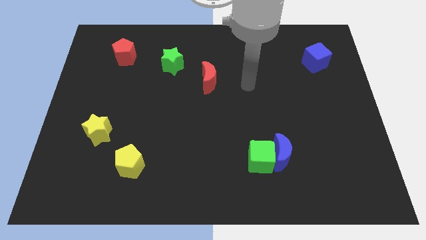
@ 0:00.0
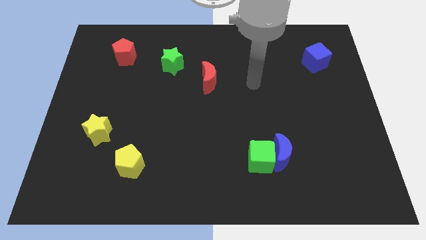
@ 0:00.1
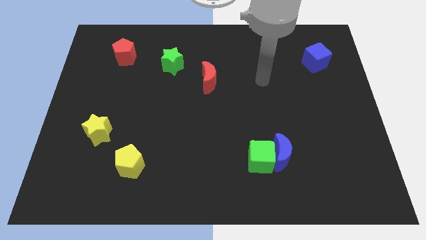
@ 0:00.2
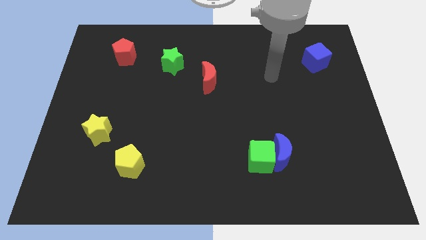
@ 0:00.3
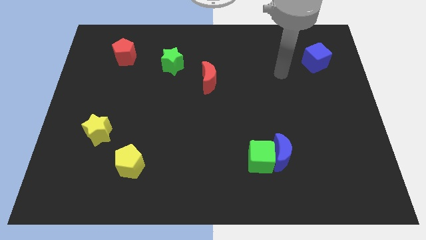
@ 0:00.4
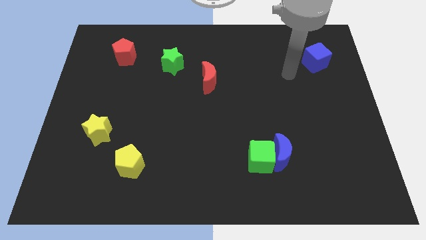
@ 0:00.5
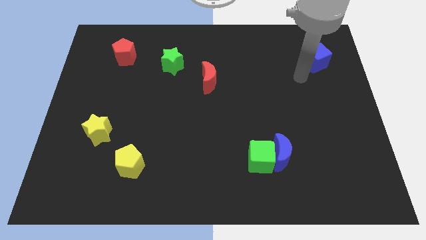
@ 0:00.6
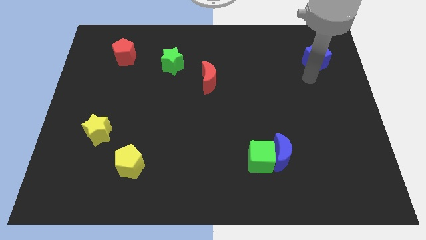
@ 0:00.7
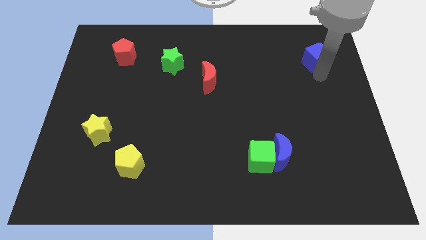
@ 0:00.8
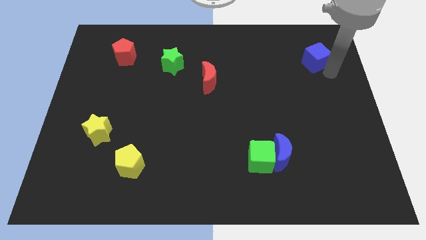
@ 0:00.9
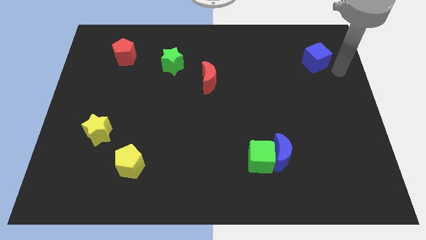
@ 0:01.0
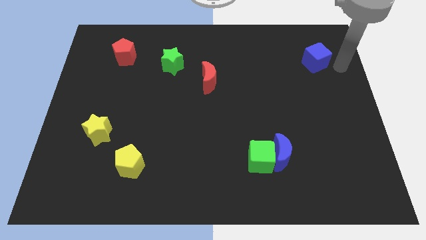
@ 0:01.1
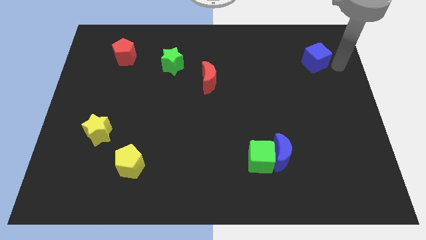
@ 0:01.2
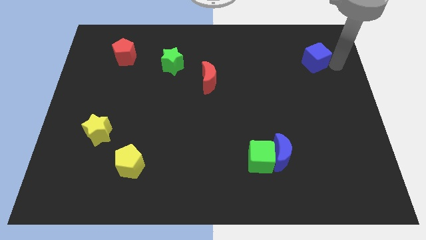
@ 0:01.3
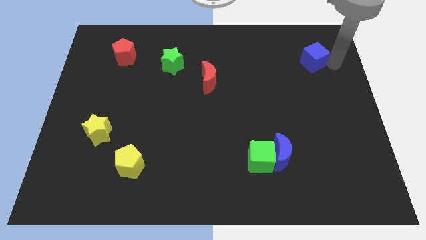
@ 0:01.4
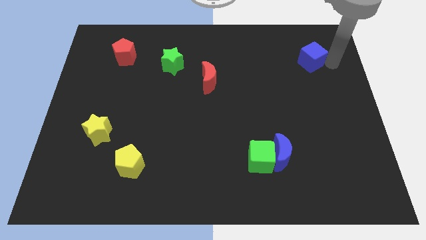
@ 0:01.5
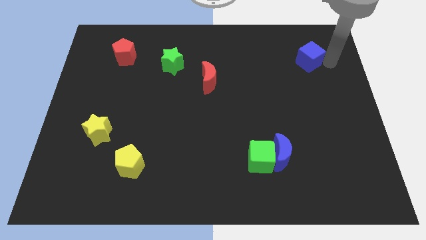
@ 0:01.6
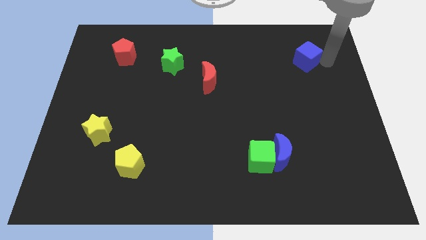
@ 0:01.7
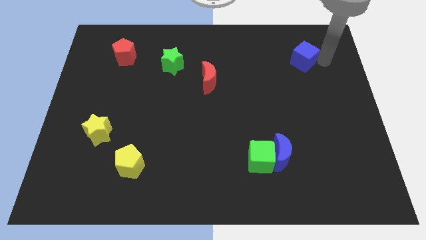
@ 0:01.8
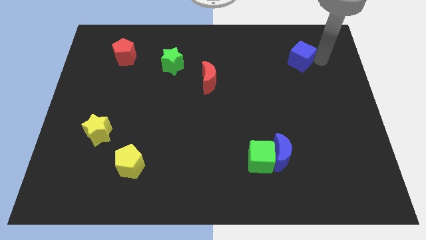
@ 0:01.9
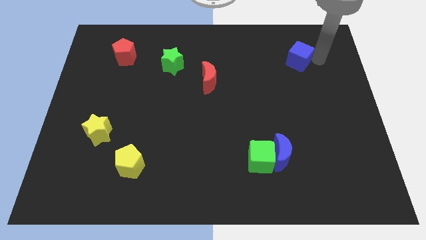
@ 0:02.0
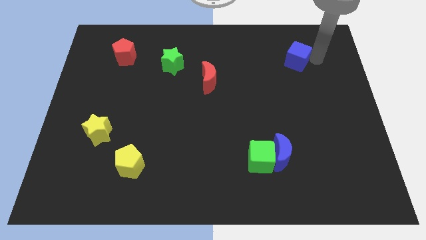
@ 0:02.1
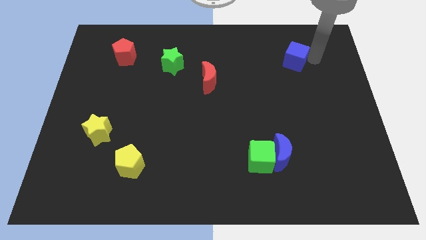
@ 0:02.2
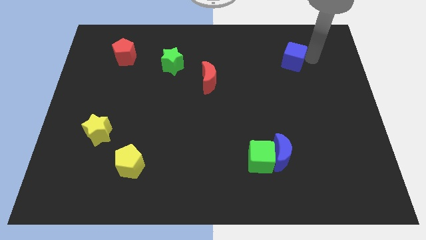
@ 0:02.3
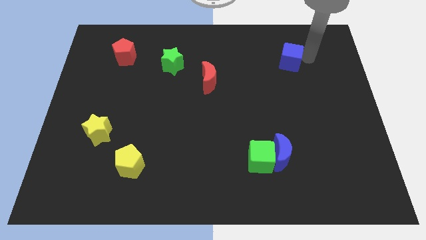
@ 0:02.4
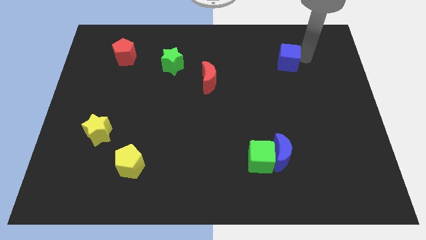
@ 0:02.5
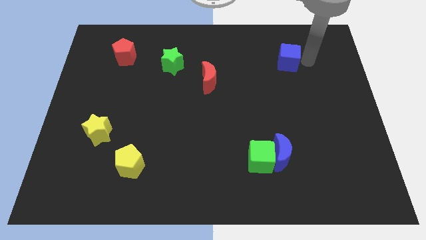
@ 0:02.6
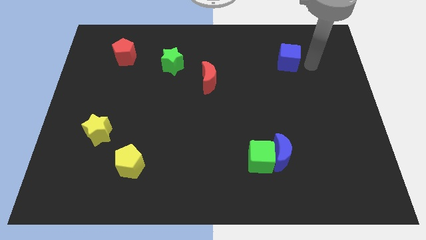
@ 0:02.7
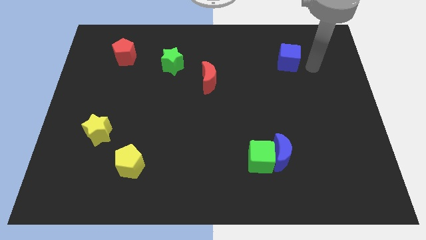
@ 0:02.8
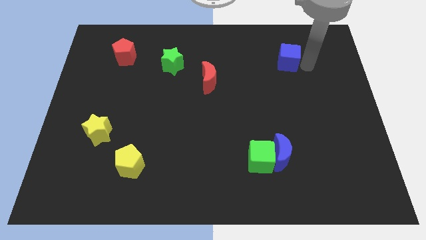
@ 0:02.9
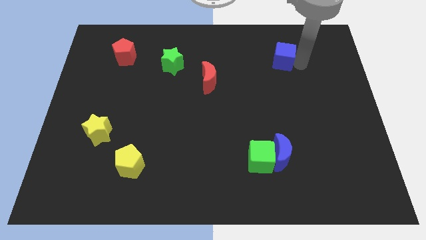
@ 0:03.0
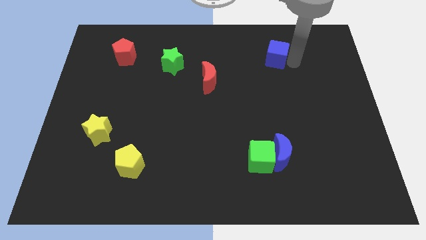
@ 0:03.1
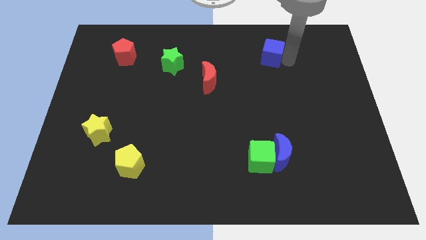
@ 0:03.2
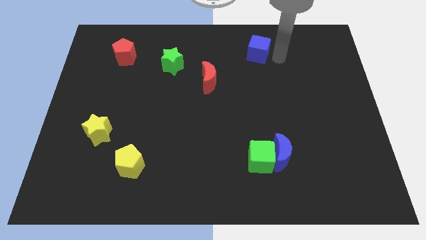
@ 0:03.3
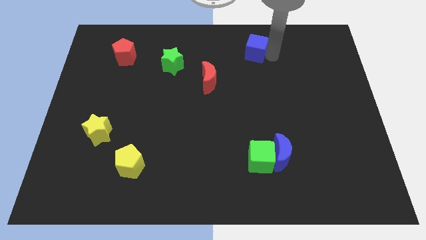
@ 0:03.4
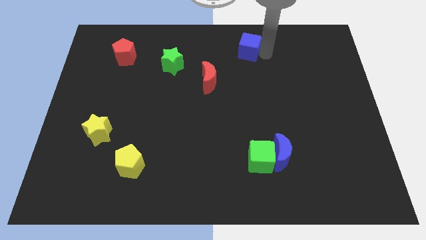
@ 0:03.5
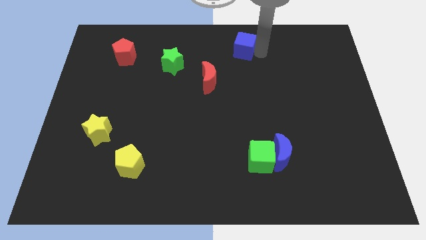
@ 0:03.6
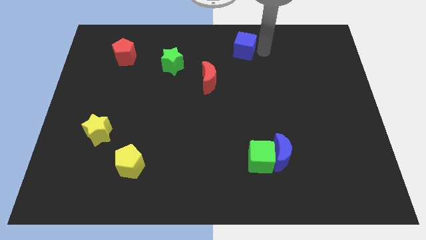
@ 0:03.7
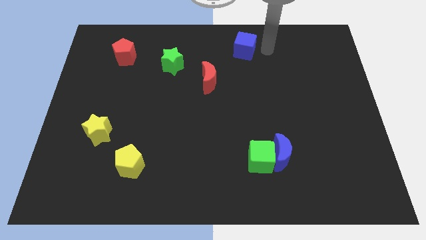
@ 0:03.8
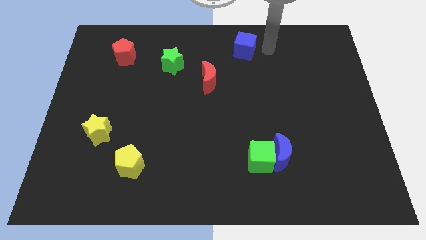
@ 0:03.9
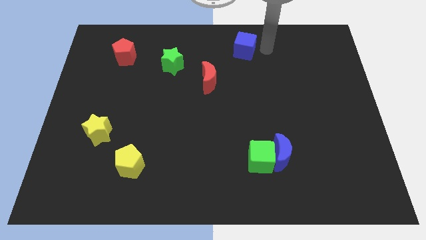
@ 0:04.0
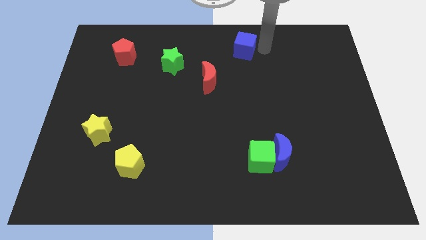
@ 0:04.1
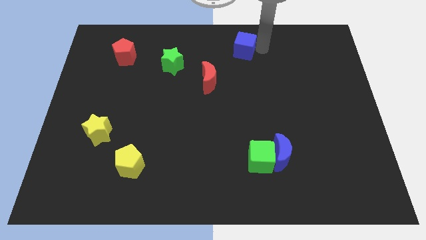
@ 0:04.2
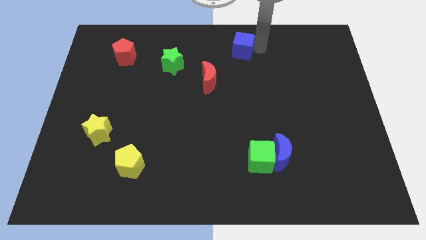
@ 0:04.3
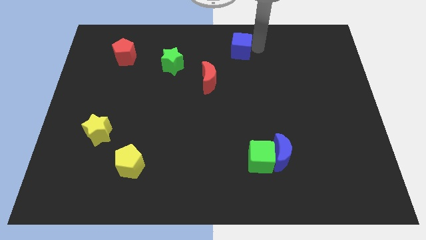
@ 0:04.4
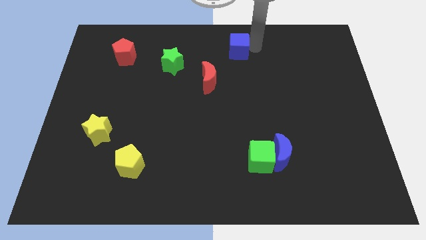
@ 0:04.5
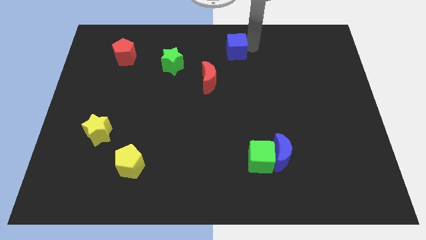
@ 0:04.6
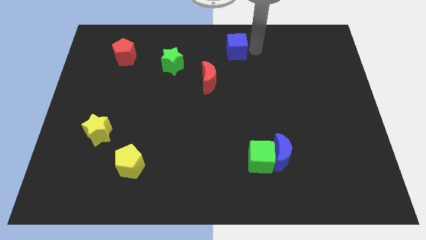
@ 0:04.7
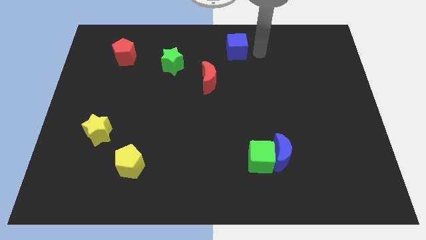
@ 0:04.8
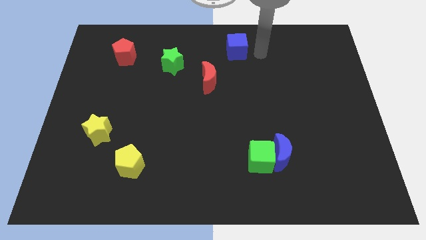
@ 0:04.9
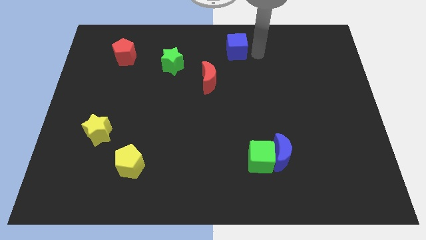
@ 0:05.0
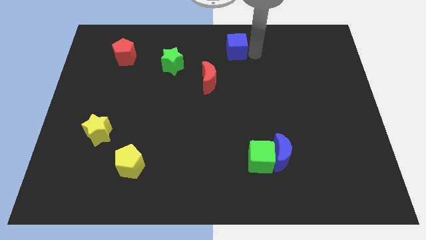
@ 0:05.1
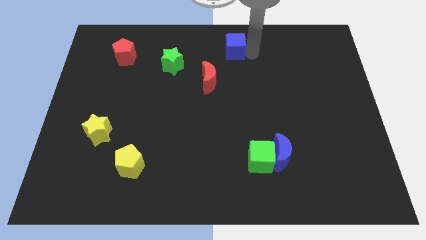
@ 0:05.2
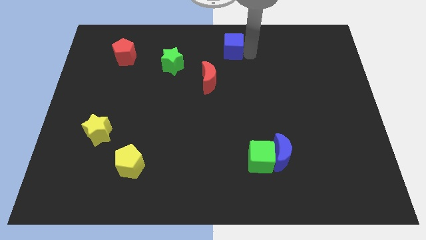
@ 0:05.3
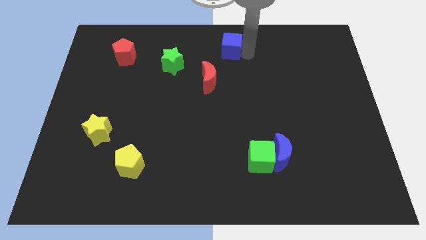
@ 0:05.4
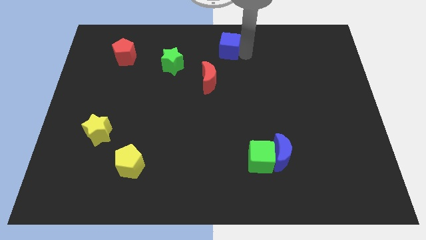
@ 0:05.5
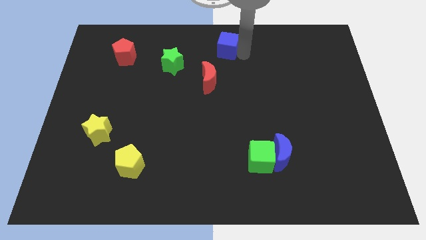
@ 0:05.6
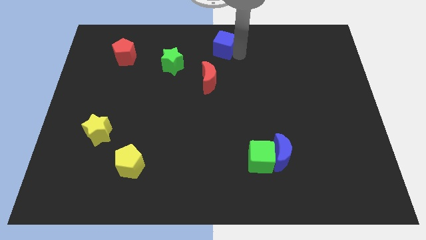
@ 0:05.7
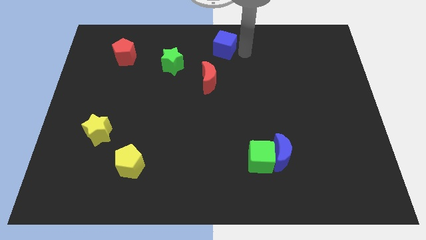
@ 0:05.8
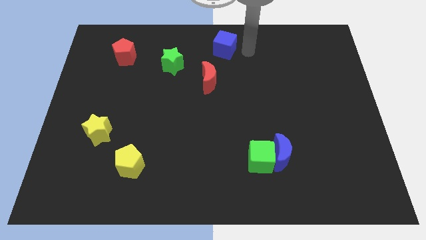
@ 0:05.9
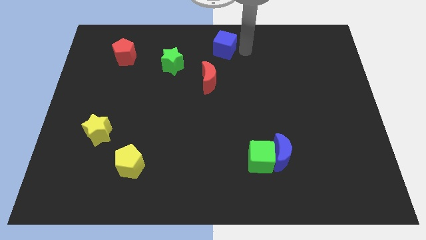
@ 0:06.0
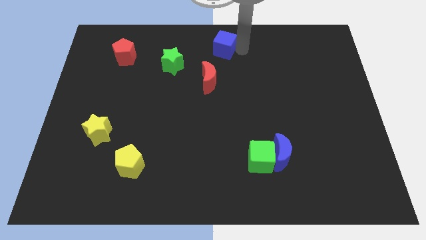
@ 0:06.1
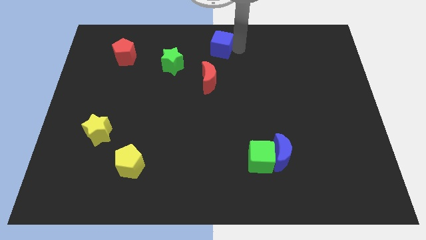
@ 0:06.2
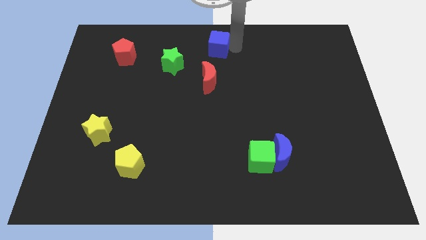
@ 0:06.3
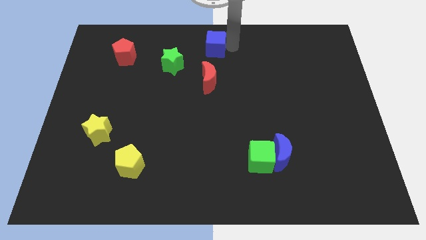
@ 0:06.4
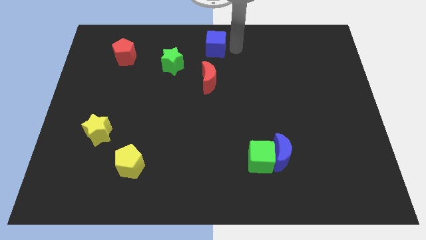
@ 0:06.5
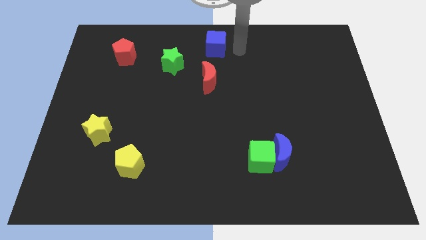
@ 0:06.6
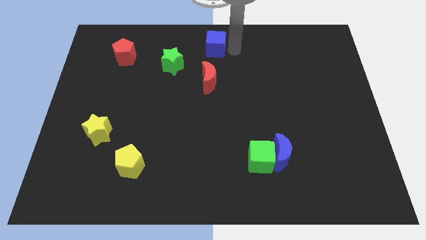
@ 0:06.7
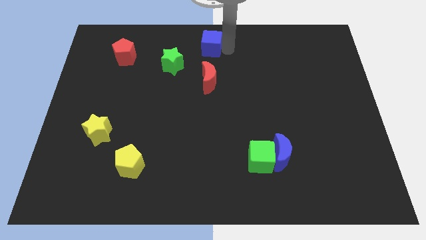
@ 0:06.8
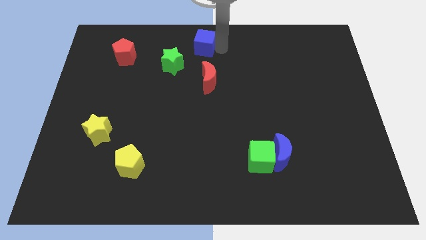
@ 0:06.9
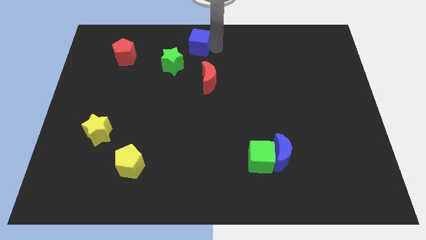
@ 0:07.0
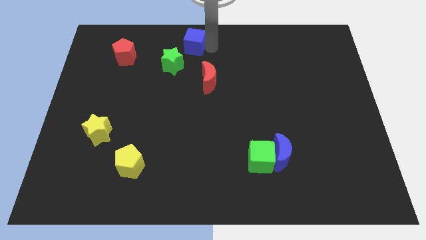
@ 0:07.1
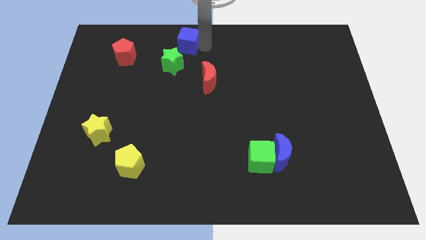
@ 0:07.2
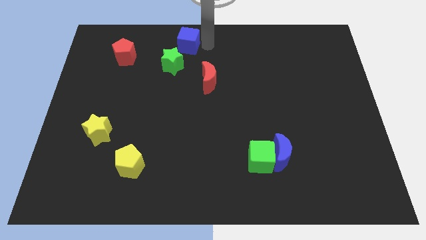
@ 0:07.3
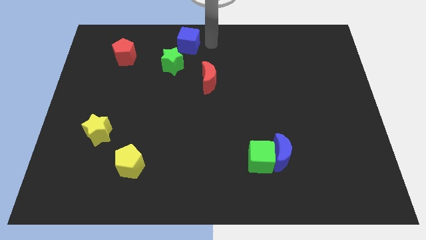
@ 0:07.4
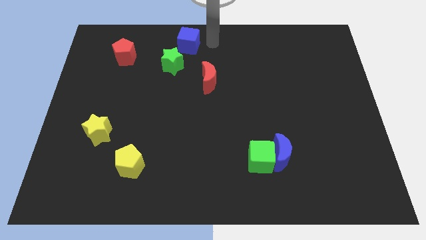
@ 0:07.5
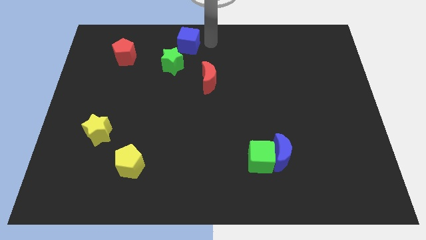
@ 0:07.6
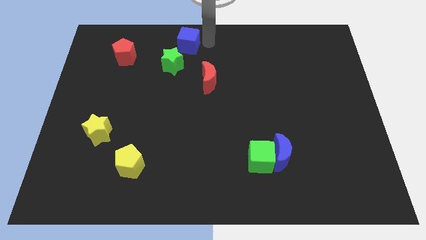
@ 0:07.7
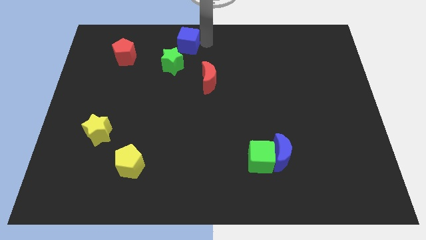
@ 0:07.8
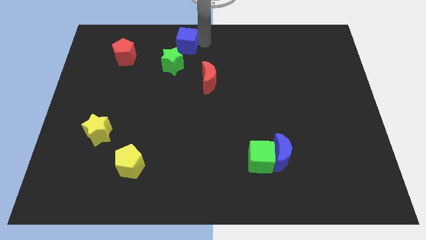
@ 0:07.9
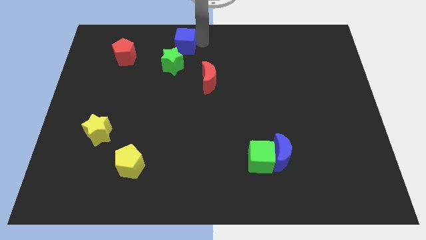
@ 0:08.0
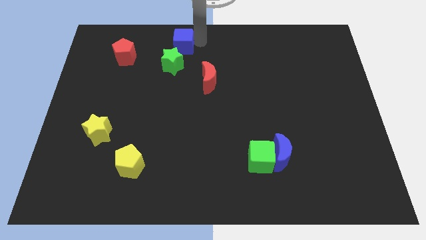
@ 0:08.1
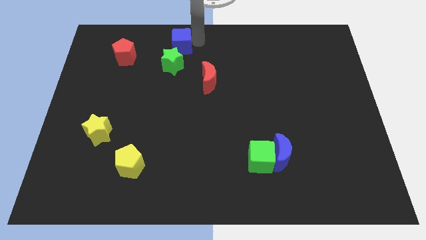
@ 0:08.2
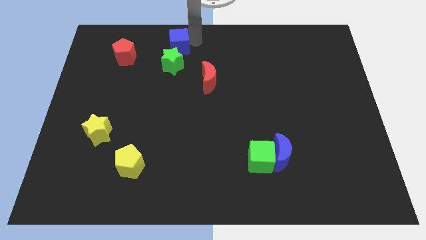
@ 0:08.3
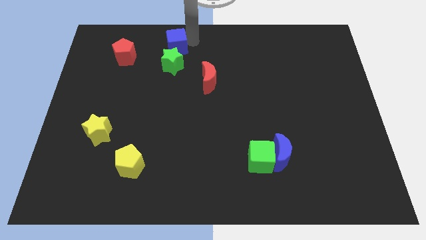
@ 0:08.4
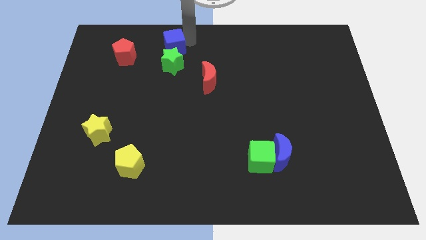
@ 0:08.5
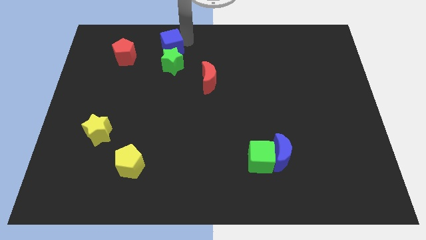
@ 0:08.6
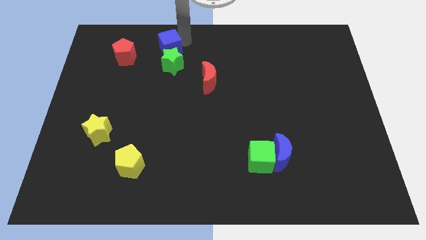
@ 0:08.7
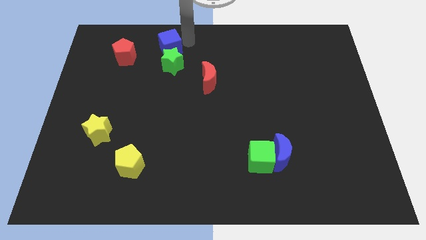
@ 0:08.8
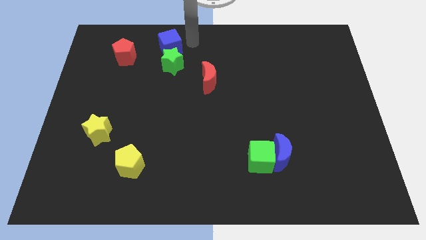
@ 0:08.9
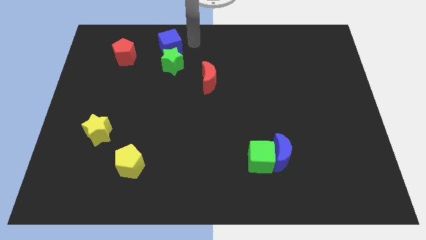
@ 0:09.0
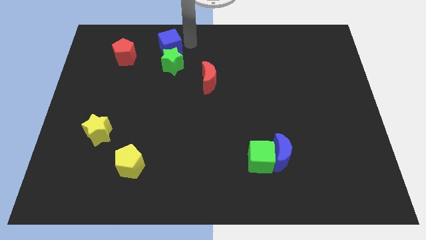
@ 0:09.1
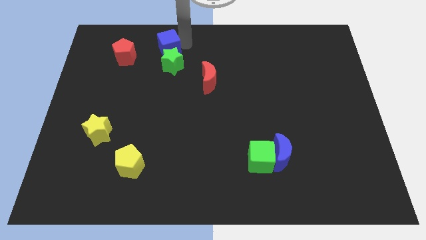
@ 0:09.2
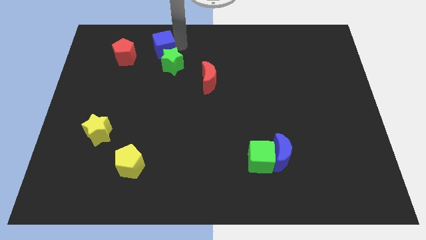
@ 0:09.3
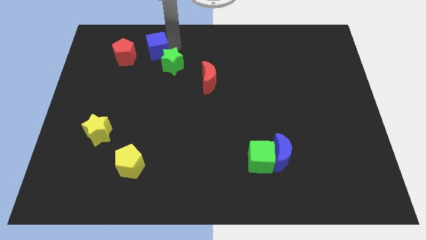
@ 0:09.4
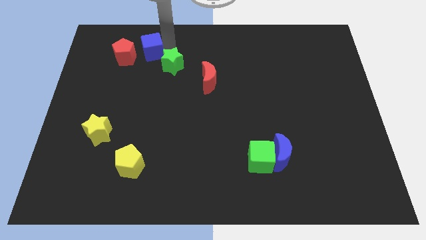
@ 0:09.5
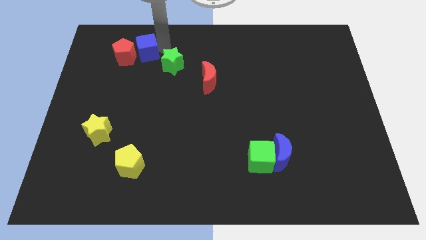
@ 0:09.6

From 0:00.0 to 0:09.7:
slide the blue cube next to the red pentagon
